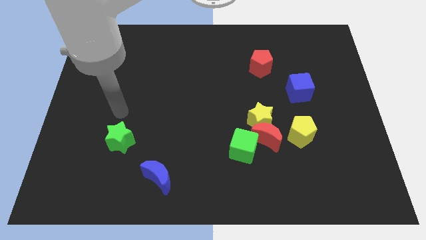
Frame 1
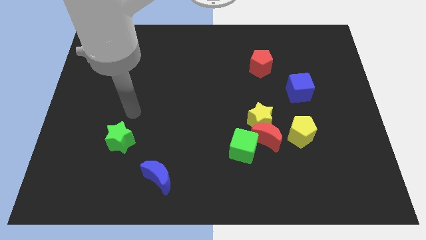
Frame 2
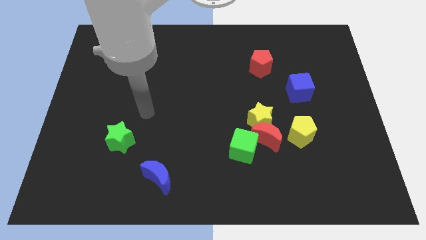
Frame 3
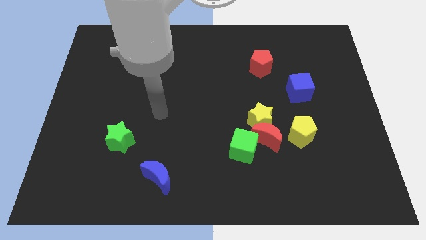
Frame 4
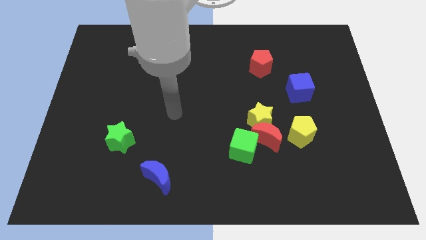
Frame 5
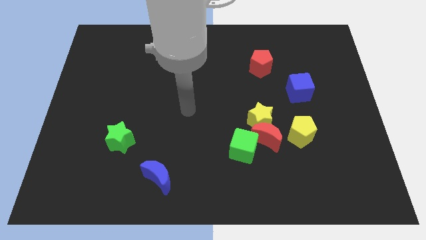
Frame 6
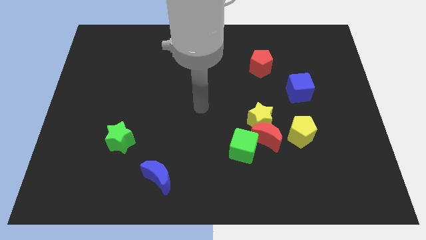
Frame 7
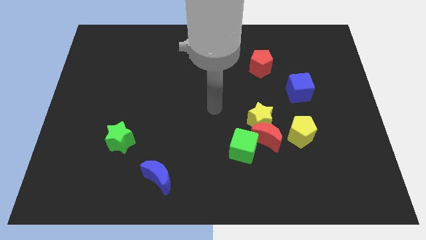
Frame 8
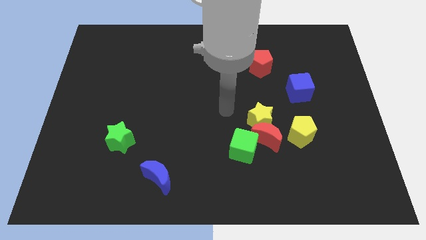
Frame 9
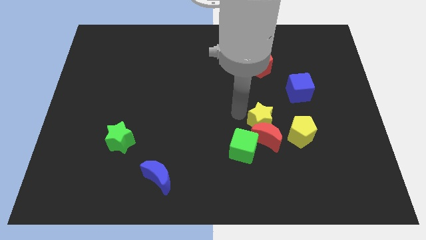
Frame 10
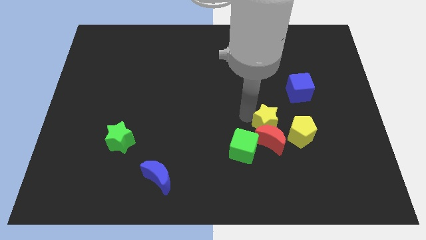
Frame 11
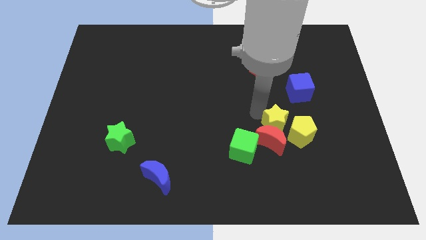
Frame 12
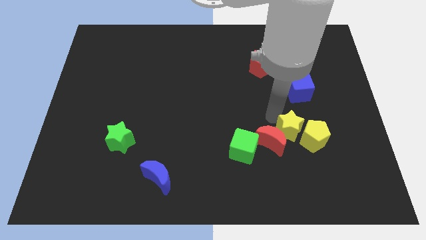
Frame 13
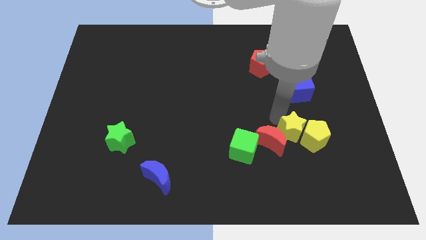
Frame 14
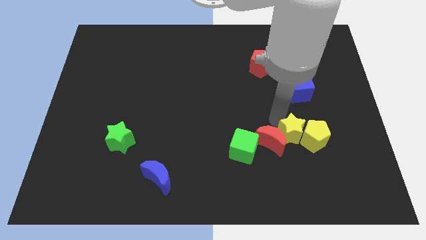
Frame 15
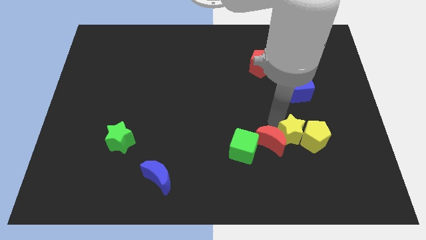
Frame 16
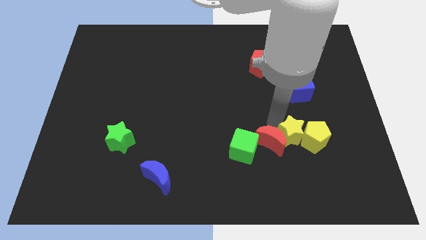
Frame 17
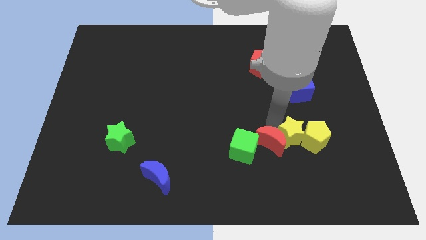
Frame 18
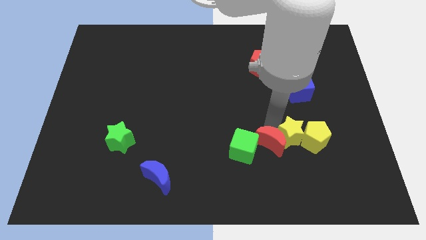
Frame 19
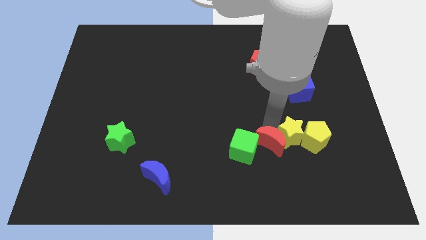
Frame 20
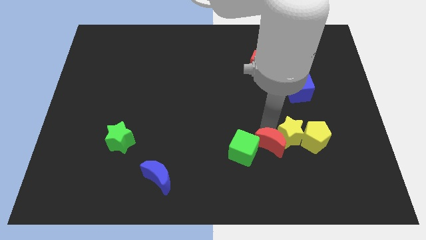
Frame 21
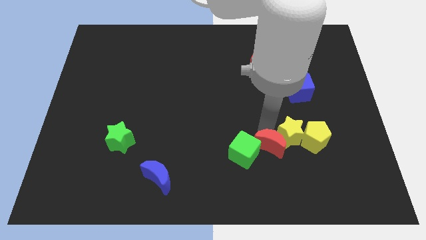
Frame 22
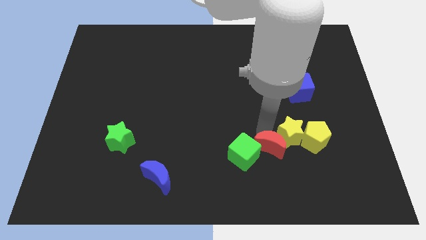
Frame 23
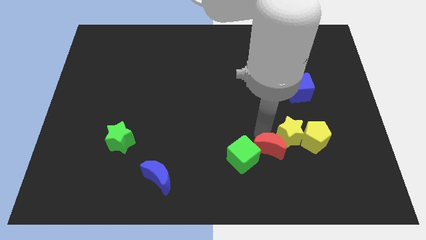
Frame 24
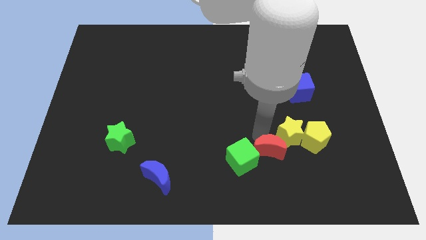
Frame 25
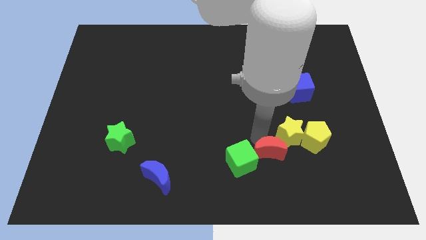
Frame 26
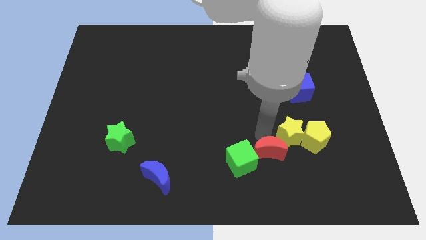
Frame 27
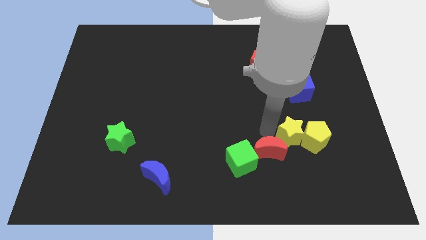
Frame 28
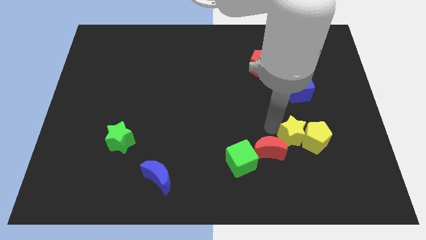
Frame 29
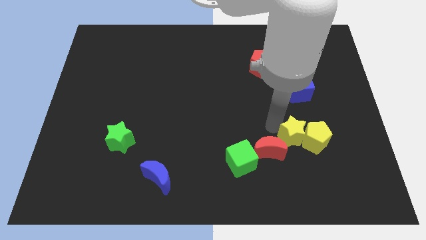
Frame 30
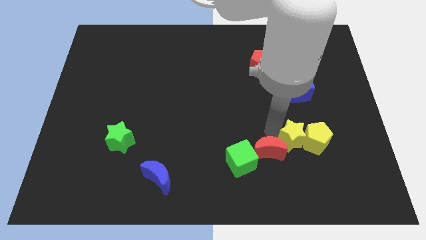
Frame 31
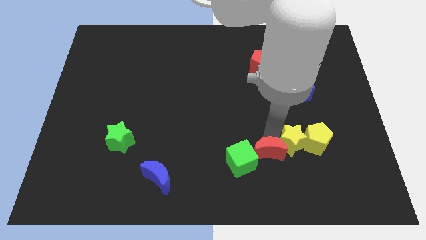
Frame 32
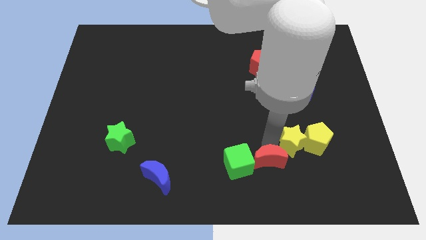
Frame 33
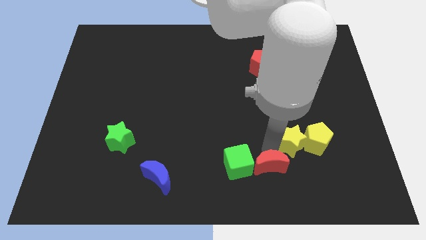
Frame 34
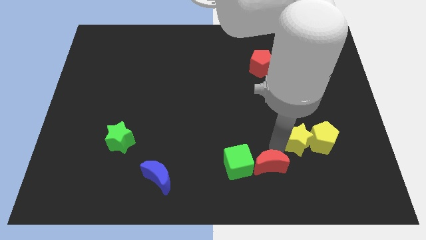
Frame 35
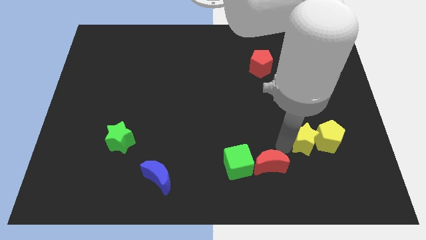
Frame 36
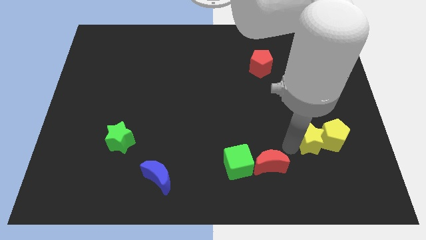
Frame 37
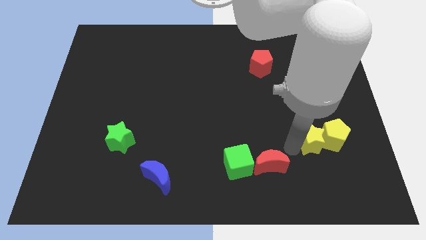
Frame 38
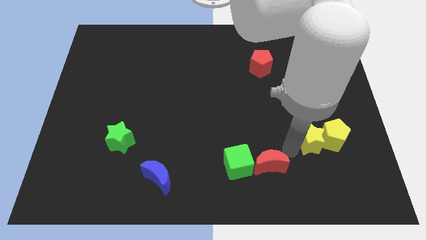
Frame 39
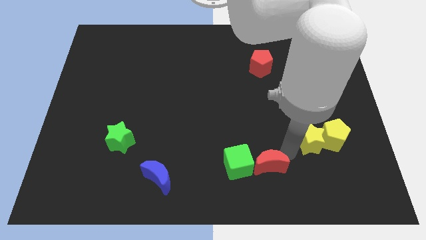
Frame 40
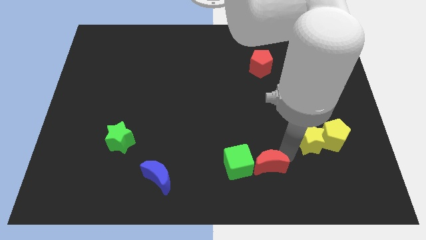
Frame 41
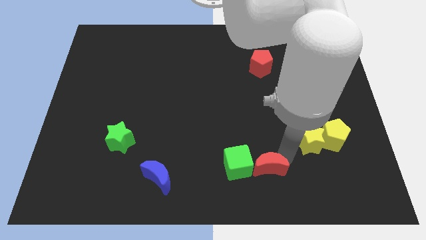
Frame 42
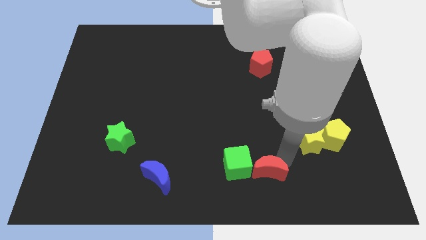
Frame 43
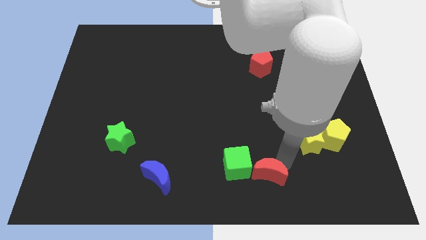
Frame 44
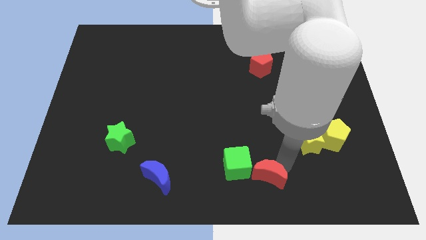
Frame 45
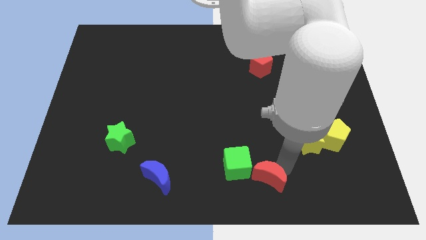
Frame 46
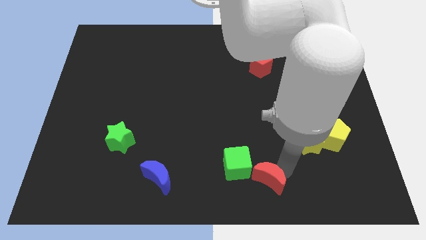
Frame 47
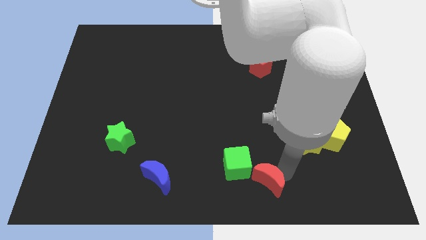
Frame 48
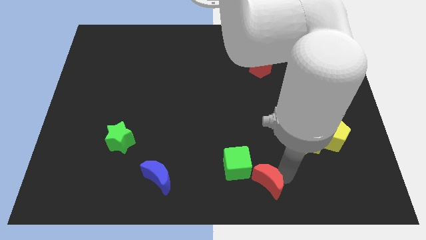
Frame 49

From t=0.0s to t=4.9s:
separate the red moon from the yellow star, green cube, and yellow pentagon

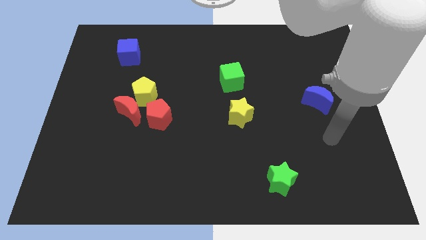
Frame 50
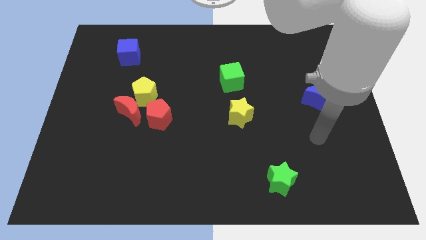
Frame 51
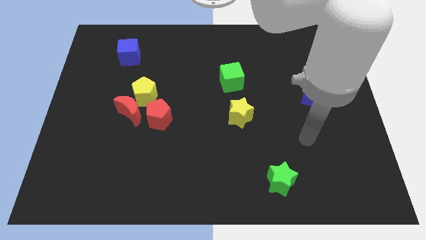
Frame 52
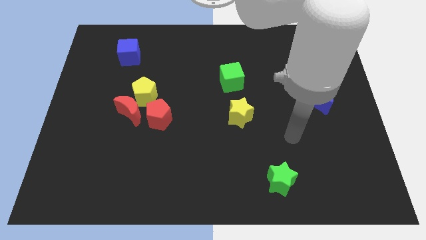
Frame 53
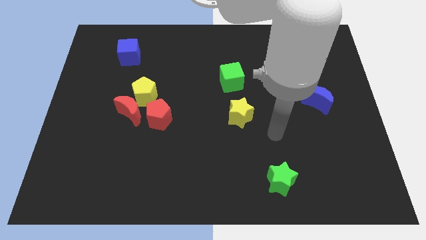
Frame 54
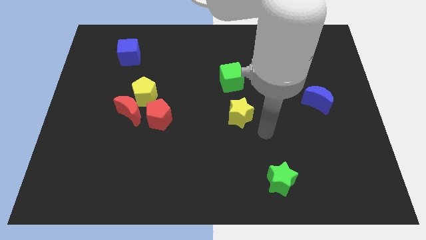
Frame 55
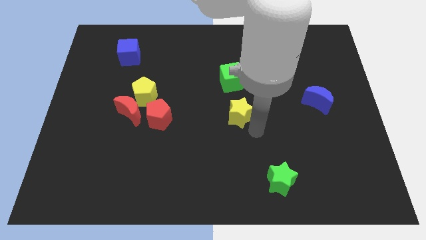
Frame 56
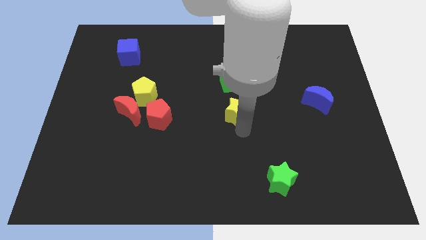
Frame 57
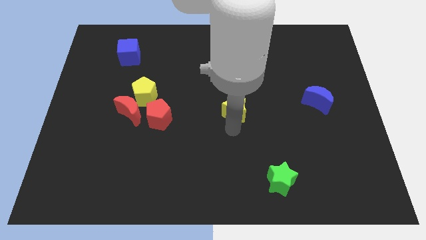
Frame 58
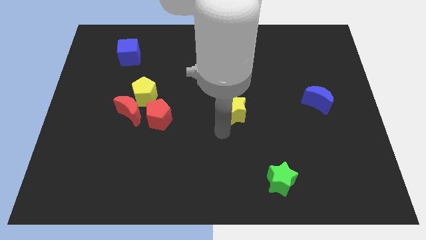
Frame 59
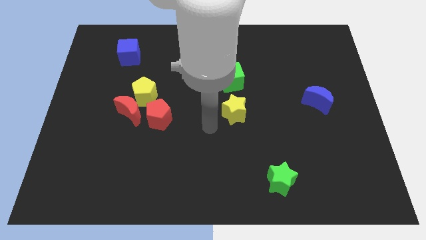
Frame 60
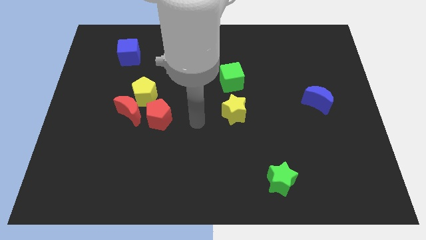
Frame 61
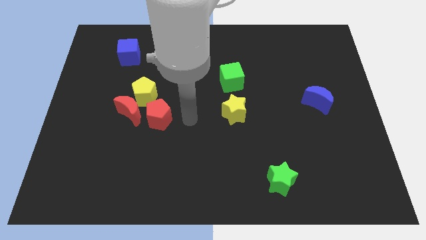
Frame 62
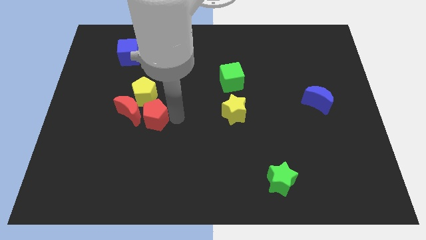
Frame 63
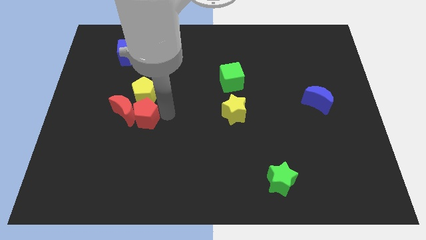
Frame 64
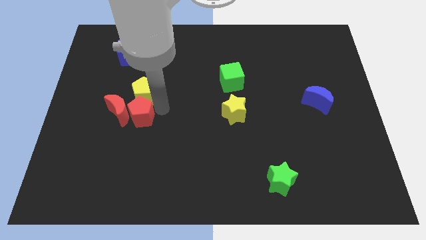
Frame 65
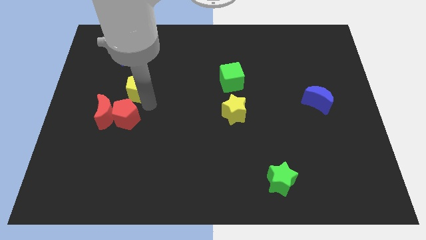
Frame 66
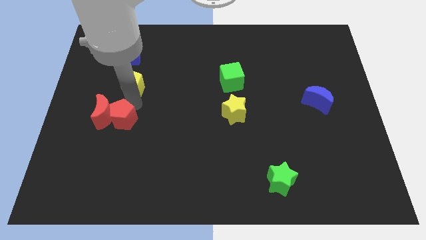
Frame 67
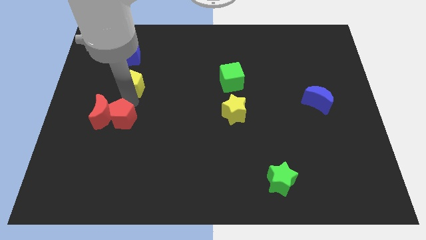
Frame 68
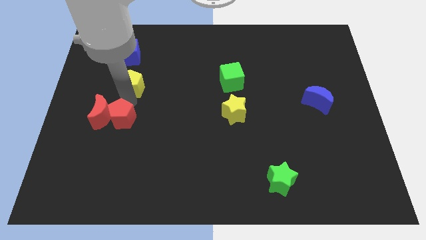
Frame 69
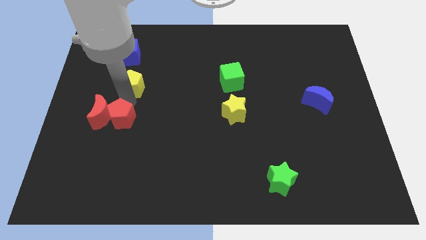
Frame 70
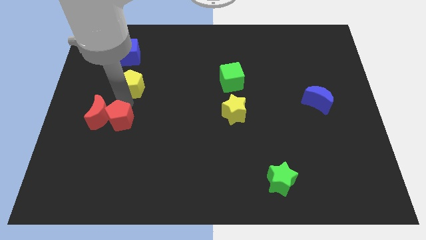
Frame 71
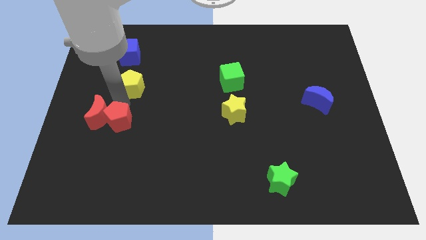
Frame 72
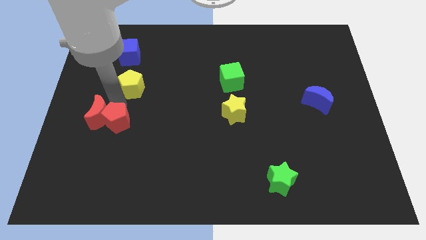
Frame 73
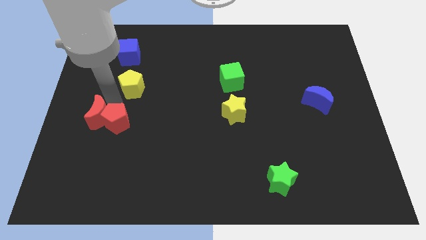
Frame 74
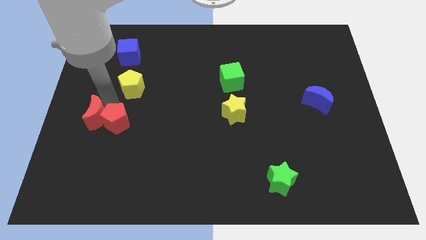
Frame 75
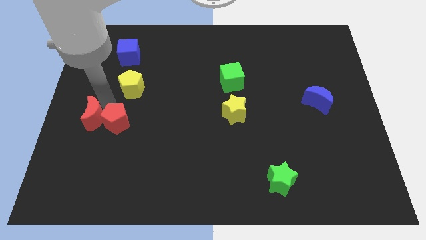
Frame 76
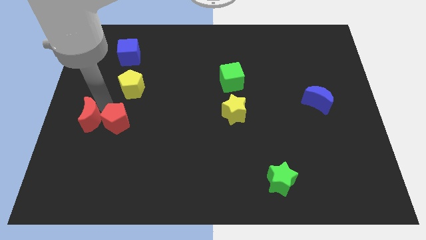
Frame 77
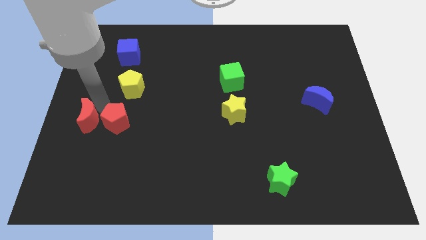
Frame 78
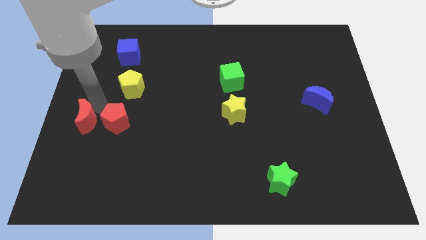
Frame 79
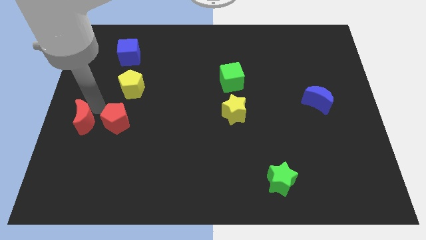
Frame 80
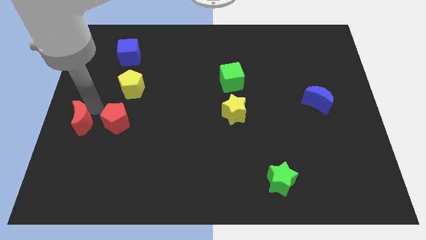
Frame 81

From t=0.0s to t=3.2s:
separate the red moon from the yellow pentagon and red pentagon

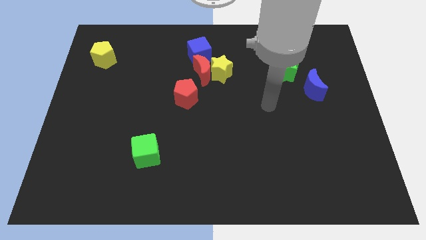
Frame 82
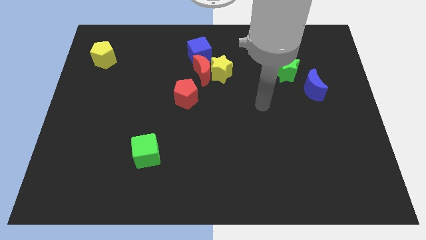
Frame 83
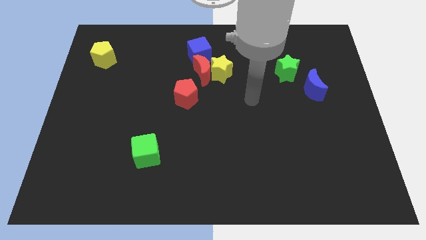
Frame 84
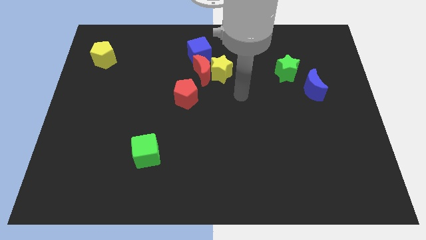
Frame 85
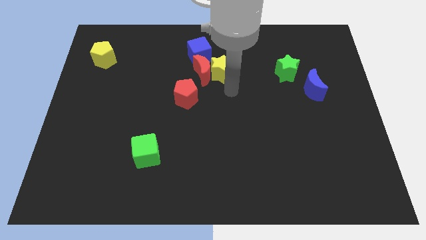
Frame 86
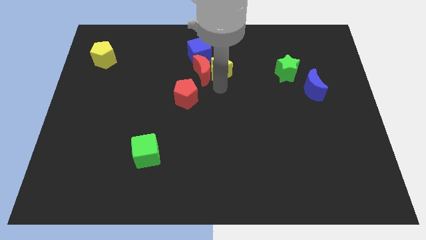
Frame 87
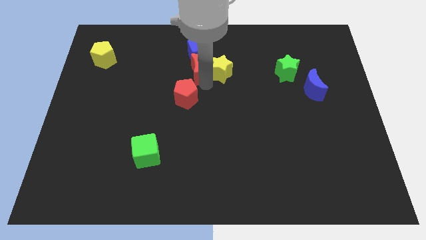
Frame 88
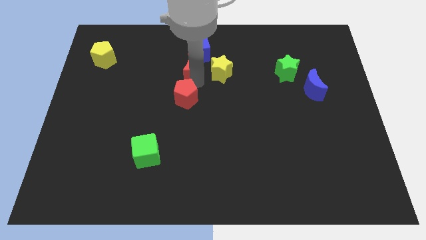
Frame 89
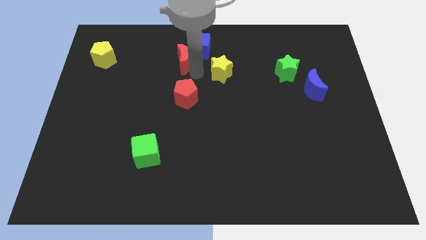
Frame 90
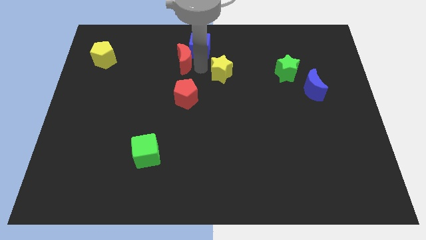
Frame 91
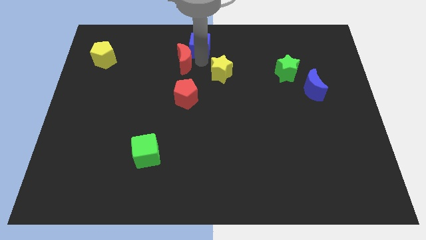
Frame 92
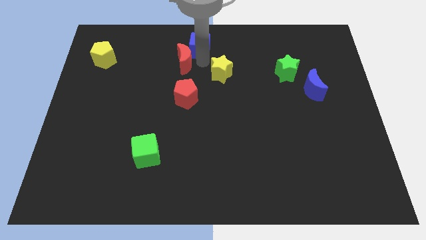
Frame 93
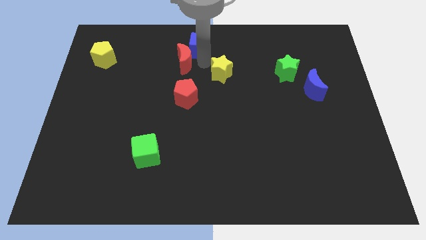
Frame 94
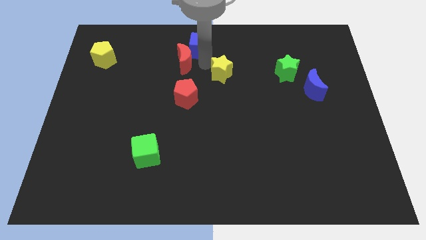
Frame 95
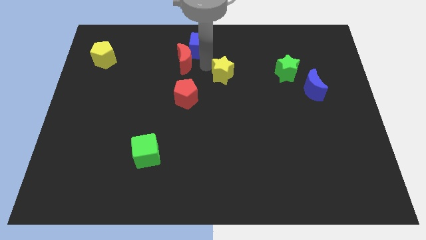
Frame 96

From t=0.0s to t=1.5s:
move the yellow star away from the red moon and blue cube
